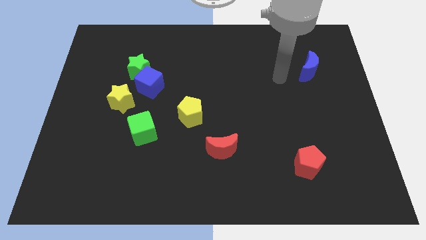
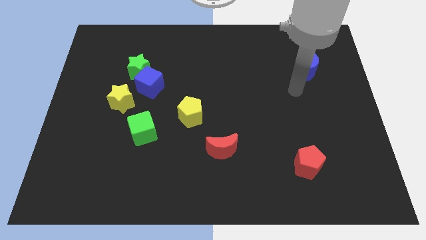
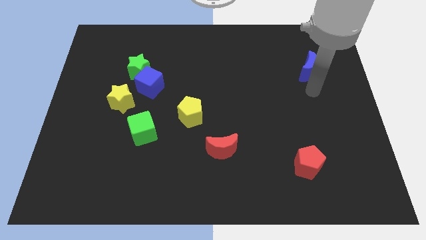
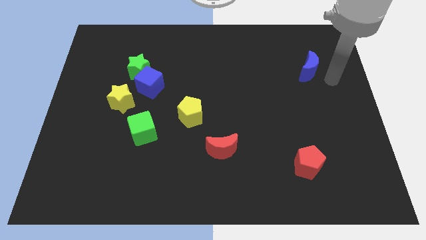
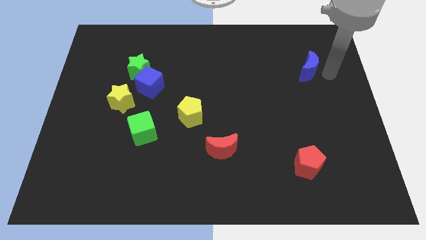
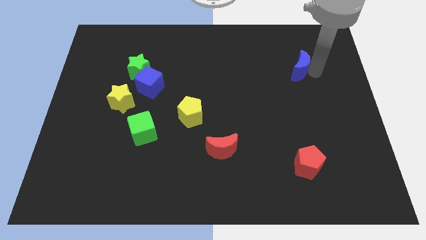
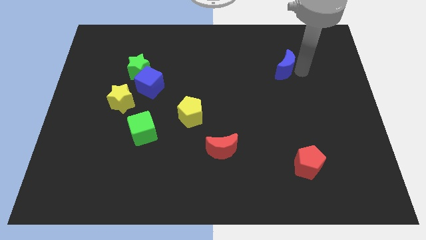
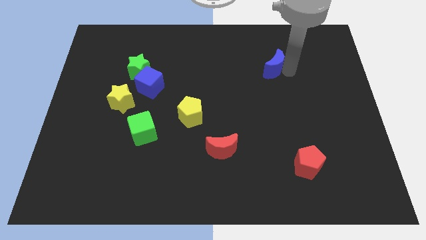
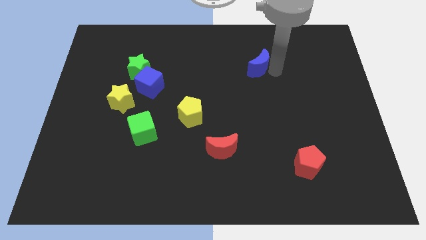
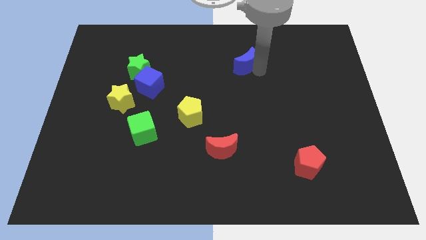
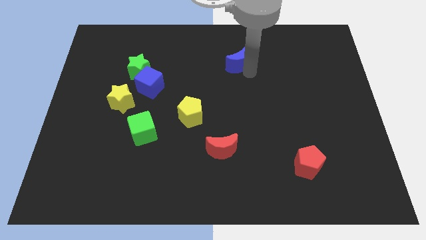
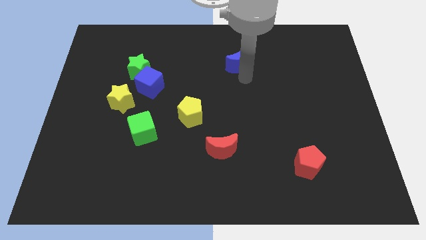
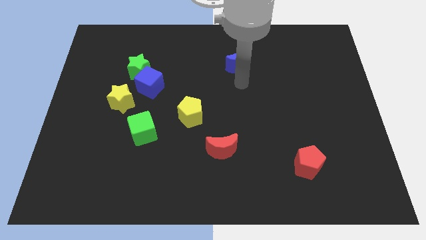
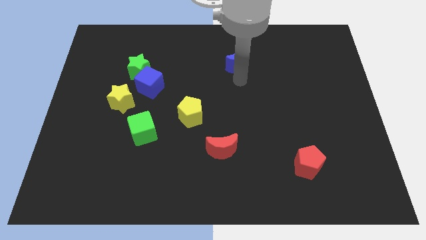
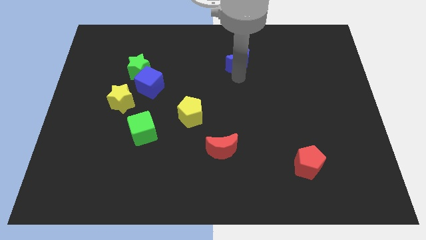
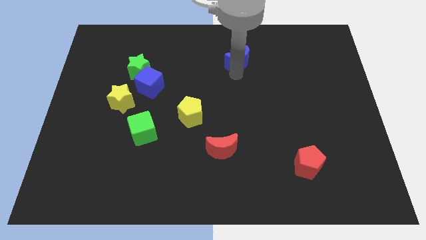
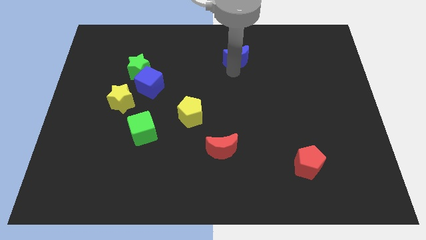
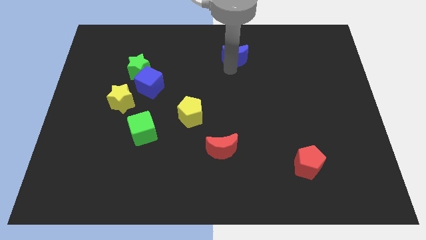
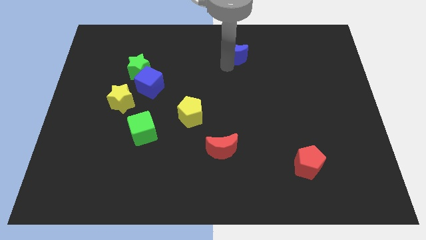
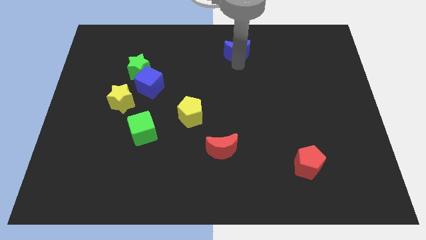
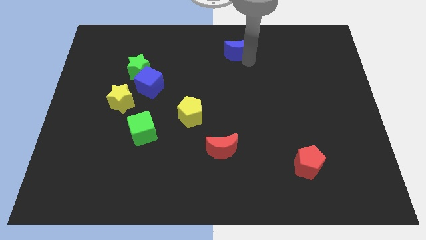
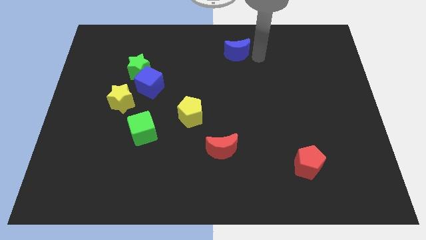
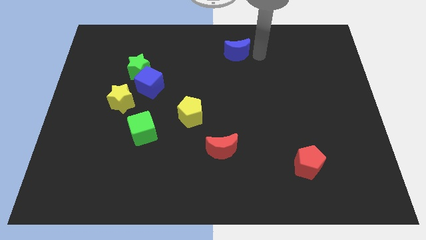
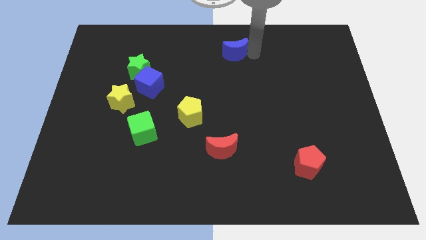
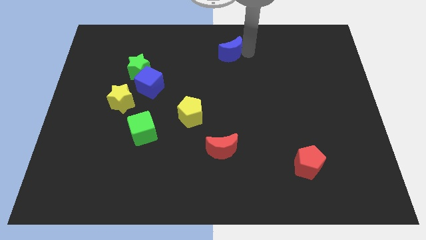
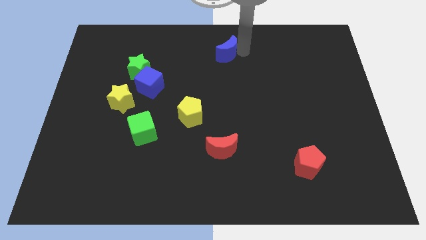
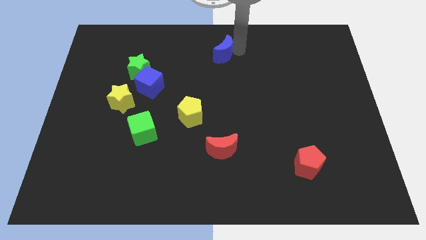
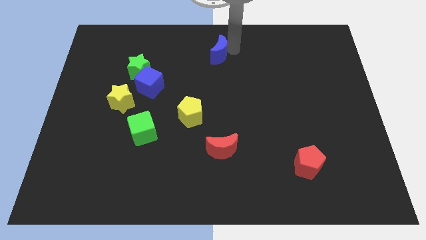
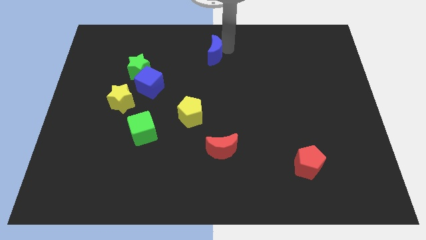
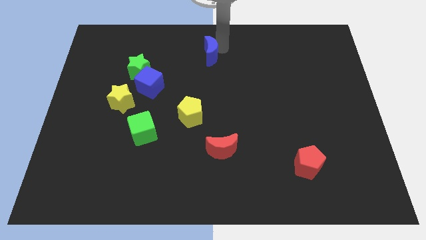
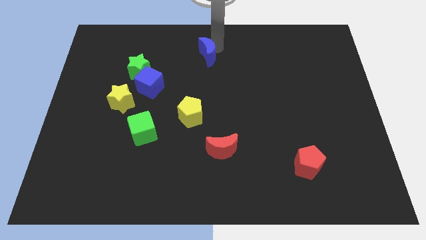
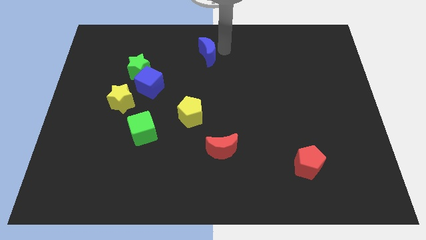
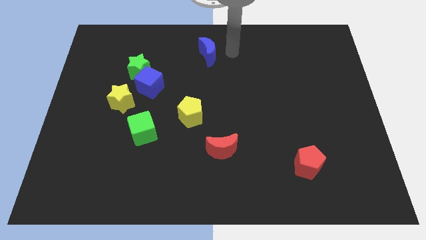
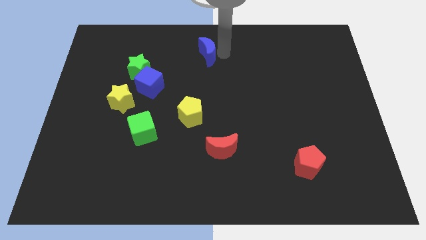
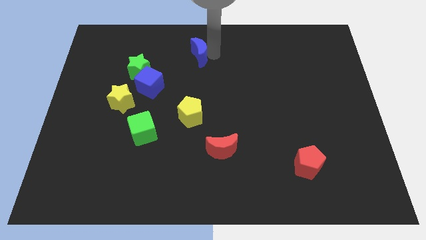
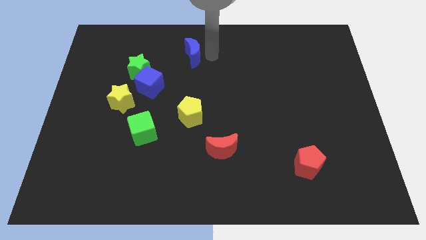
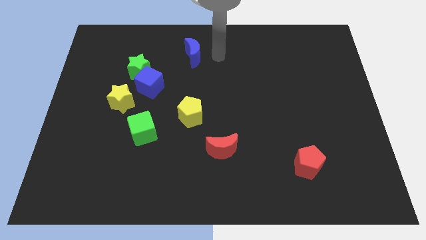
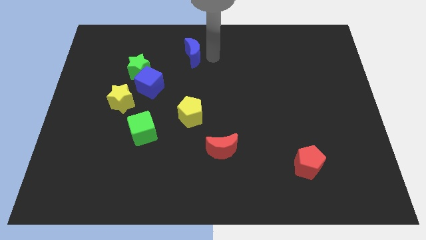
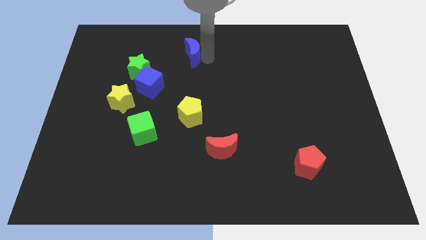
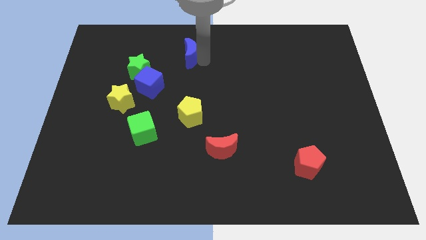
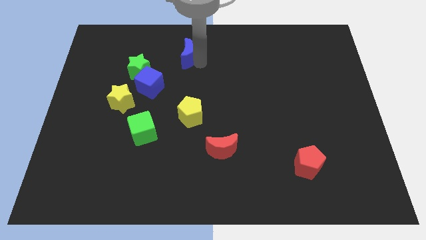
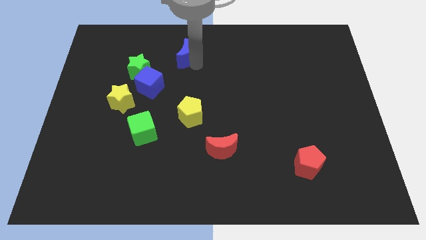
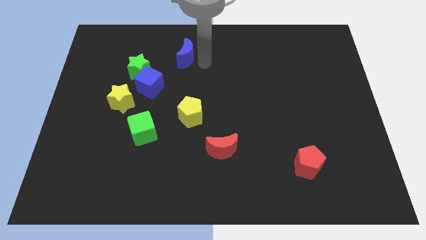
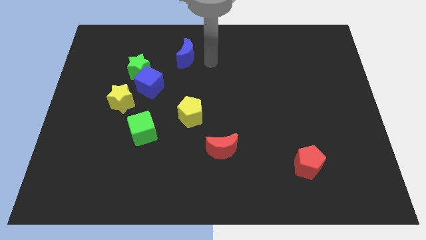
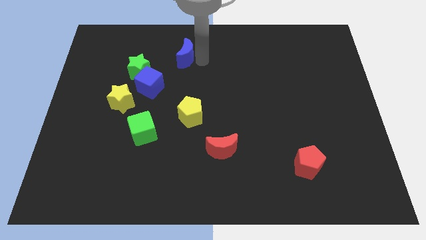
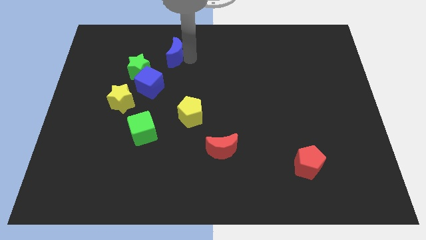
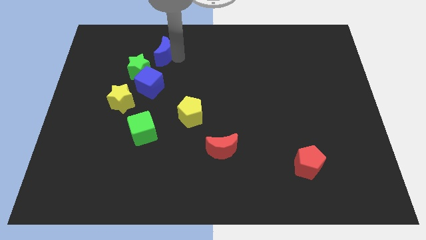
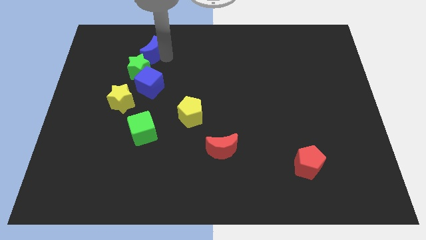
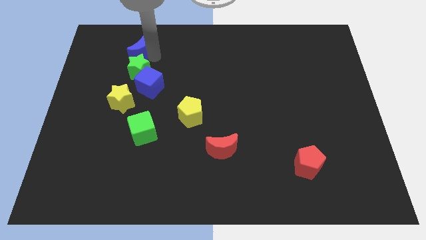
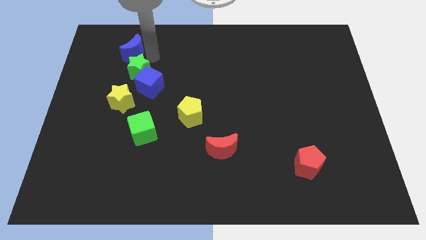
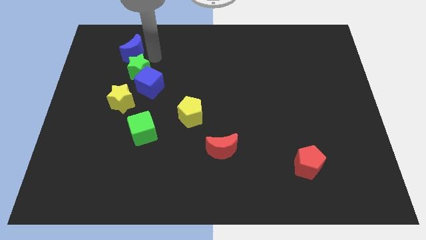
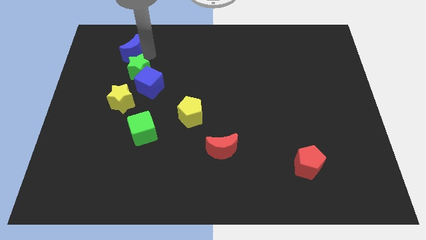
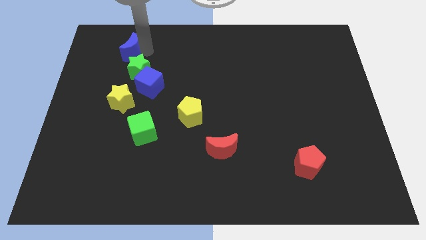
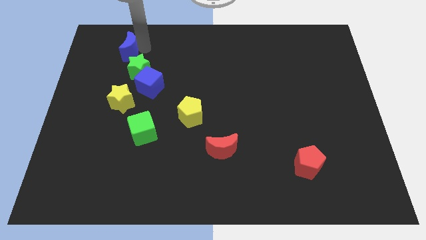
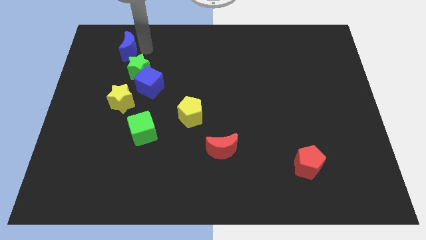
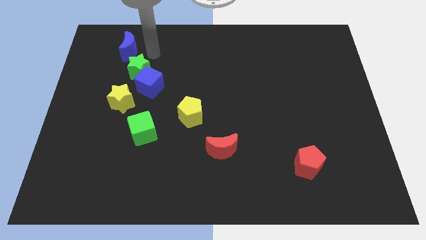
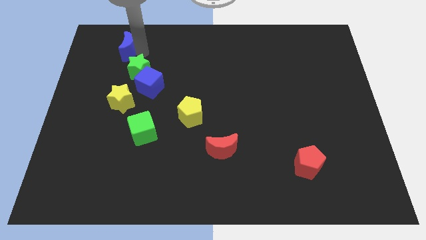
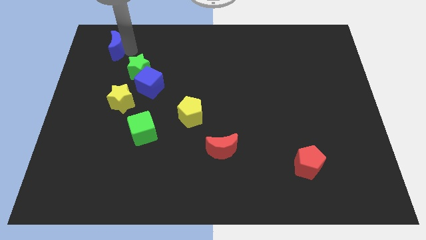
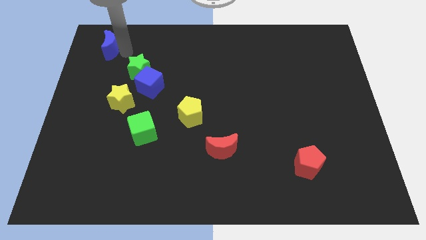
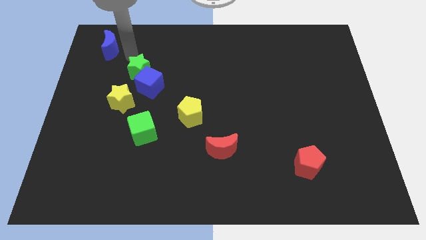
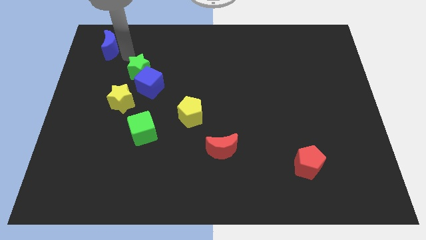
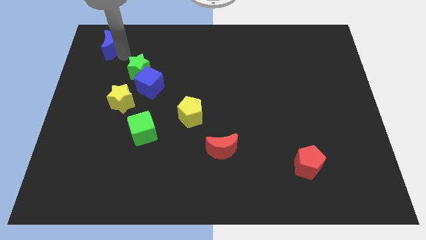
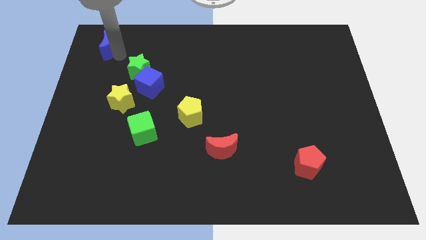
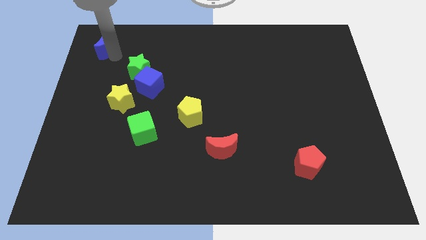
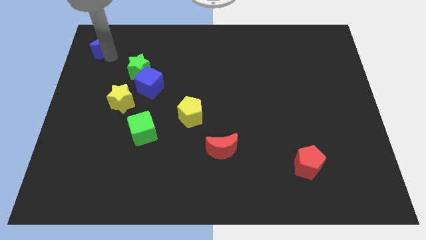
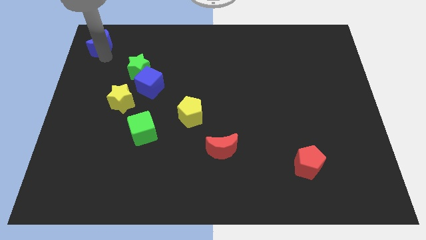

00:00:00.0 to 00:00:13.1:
slide the blue moon to the top left of the board
